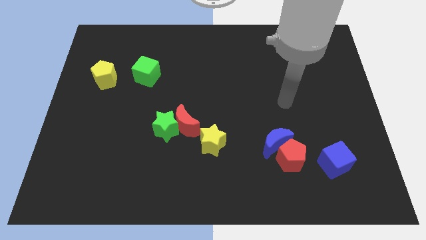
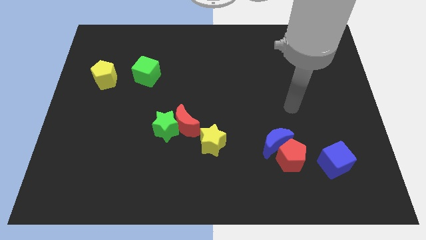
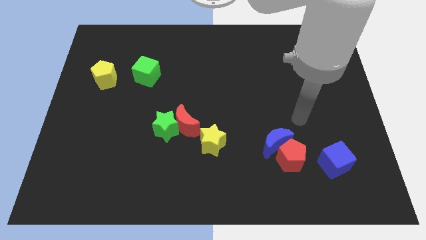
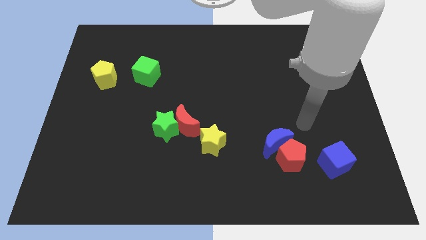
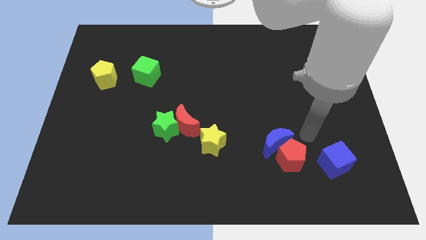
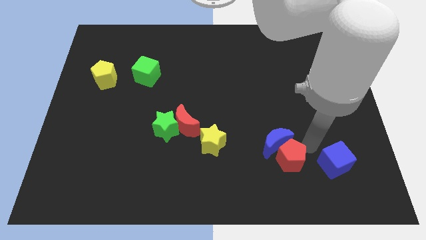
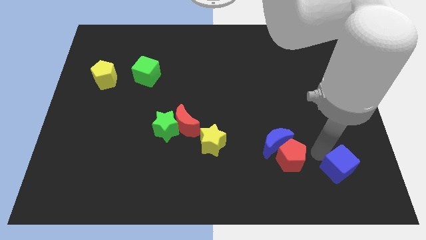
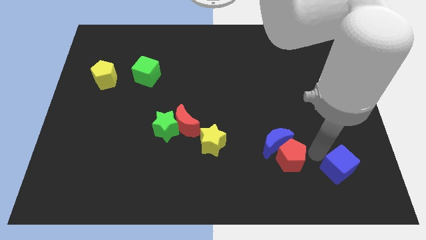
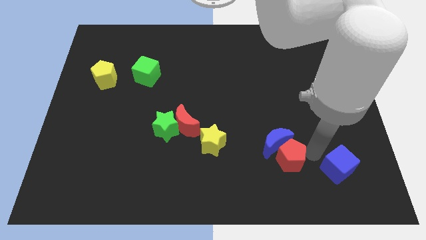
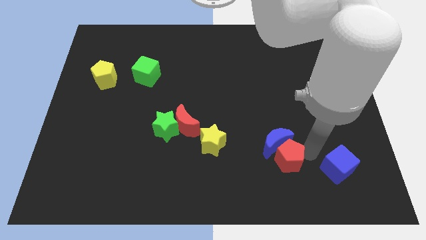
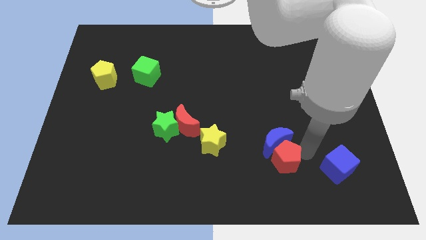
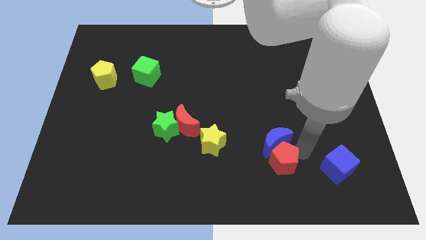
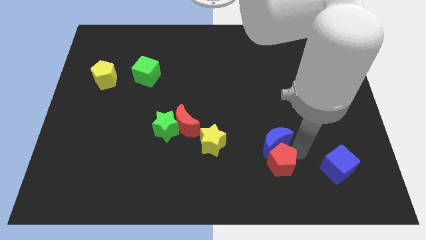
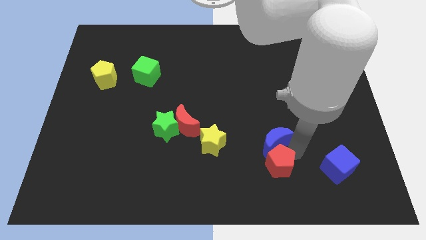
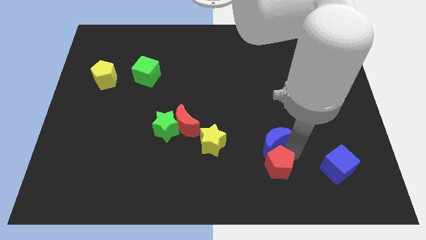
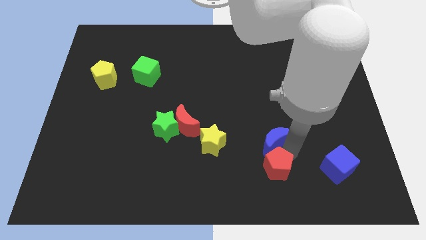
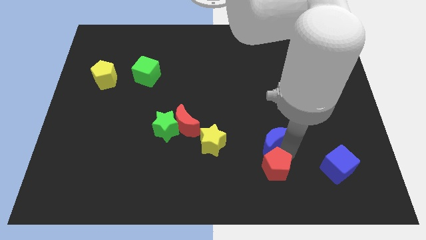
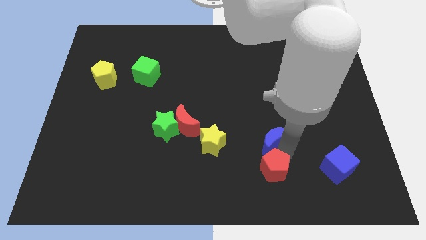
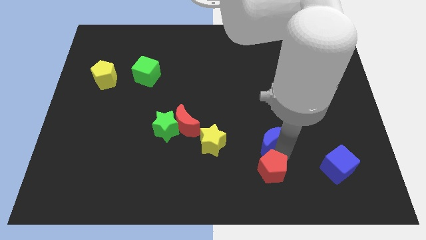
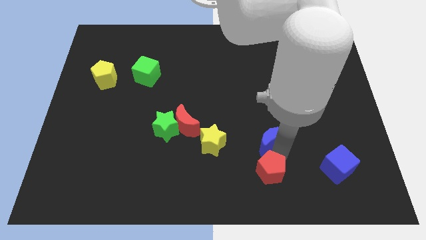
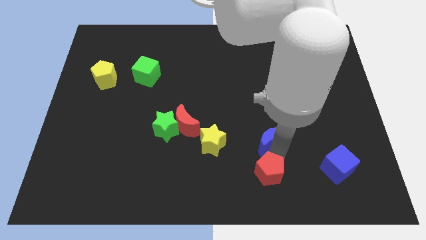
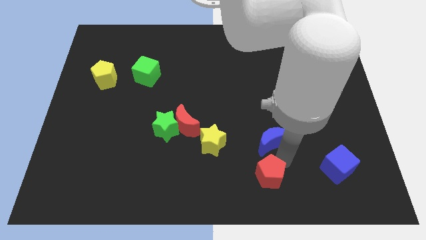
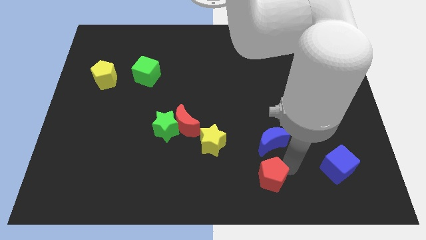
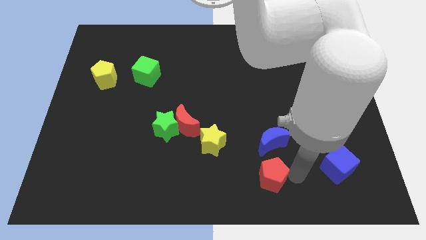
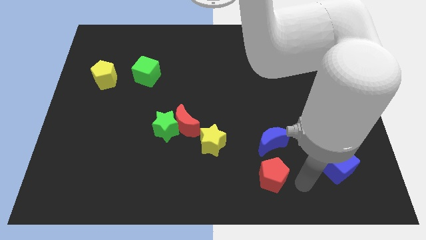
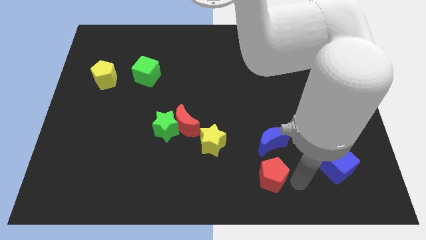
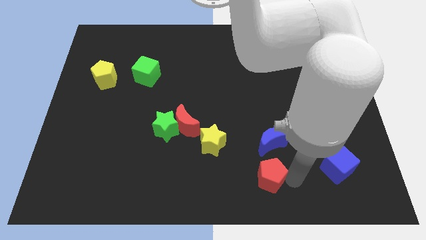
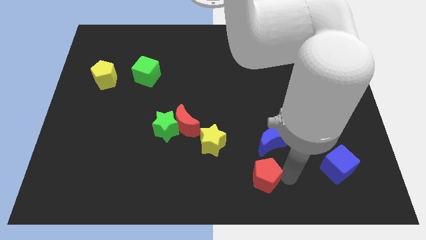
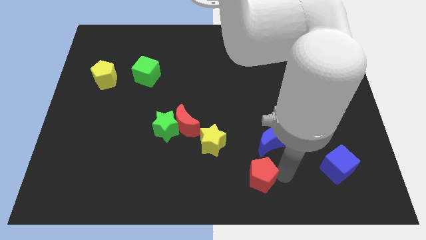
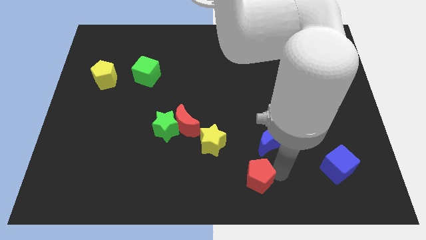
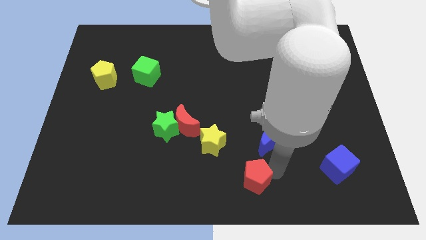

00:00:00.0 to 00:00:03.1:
slide the red pentagon a bit to the left

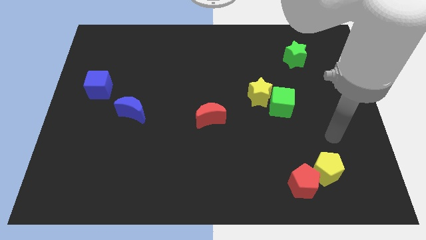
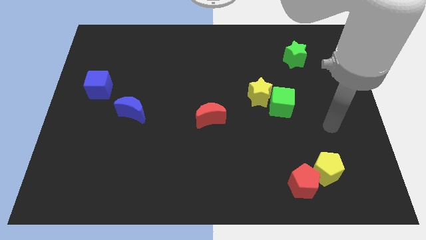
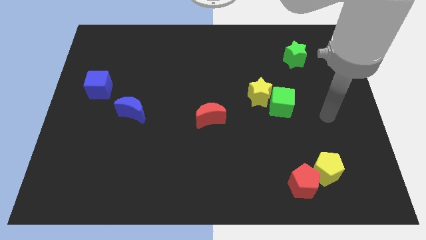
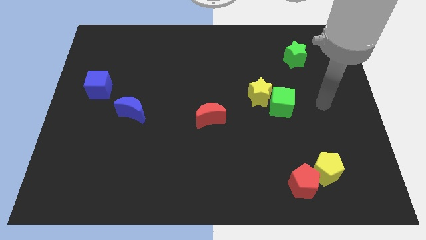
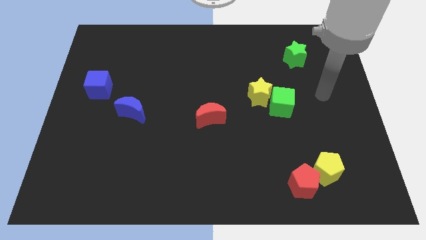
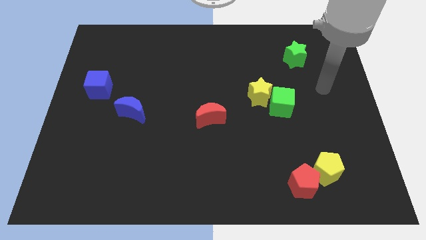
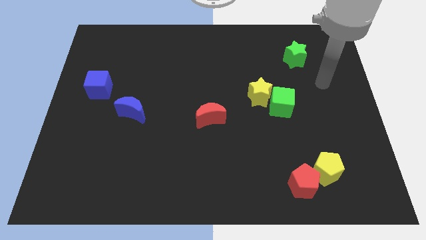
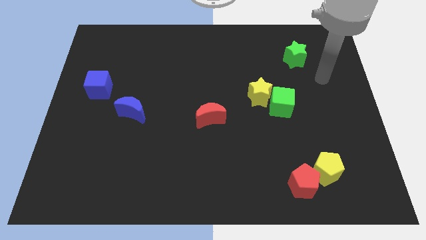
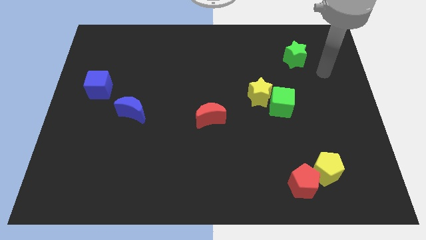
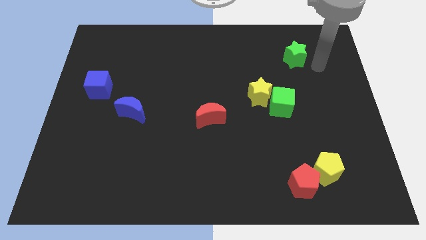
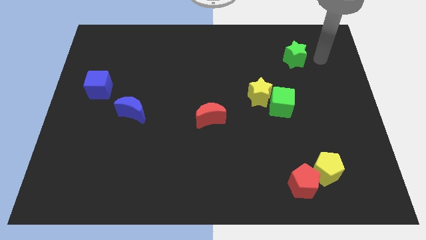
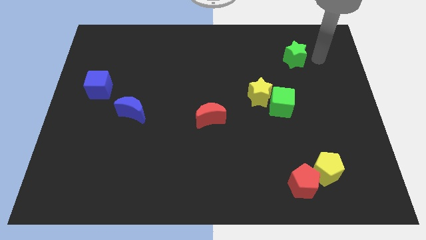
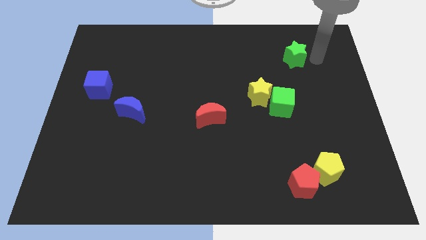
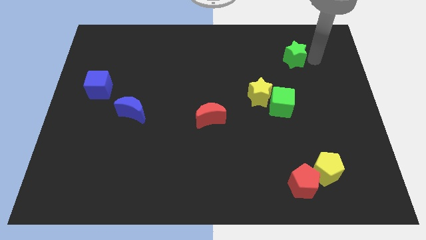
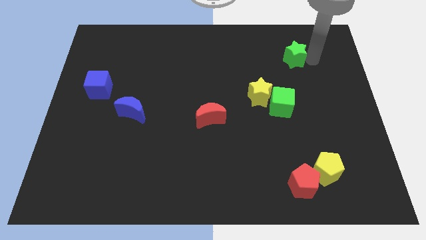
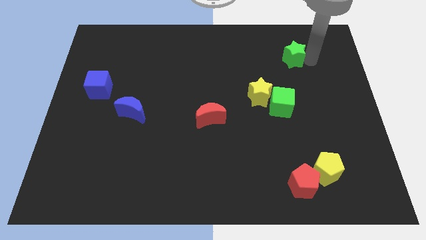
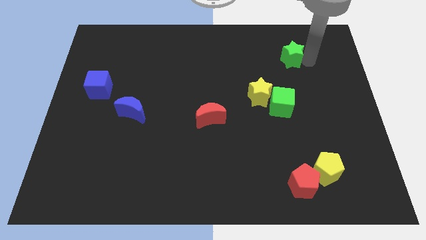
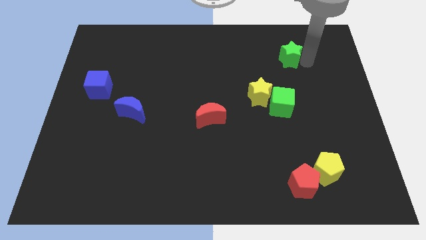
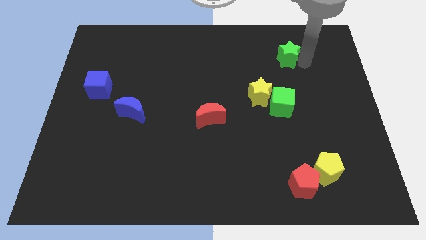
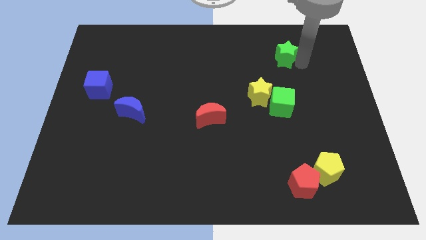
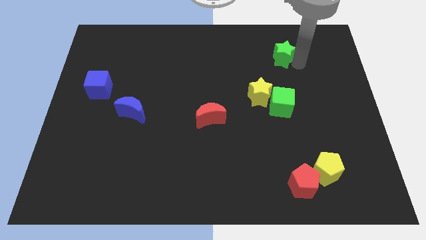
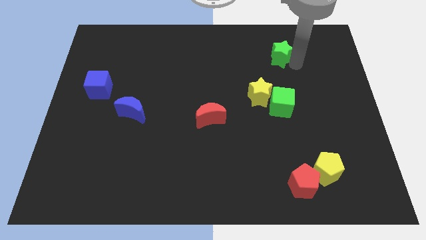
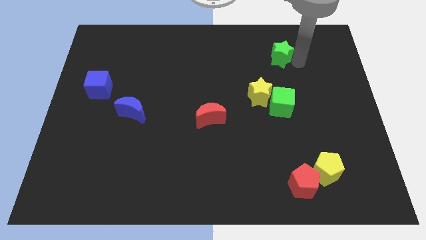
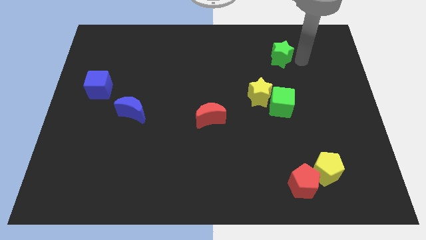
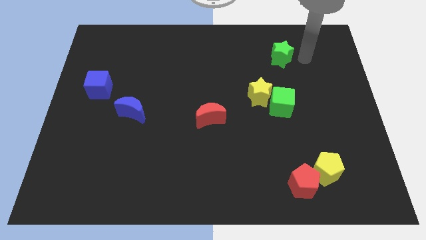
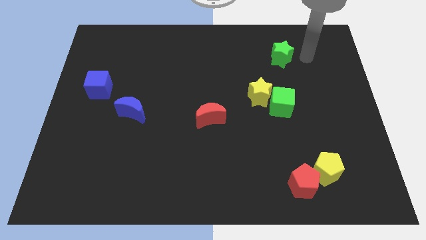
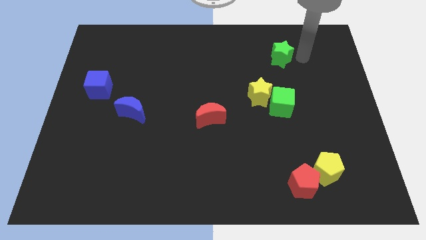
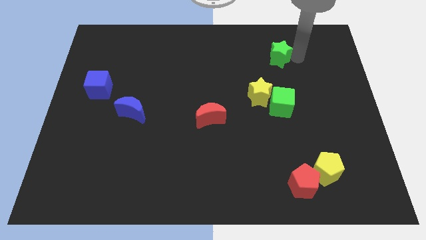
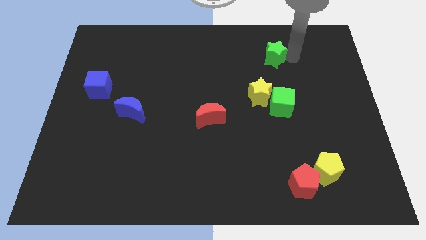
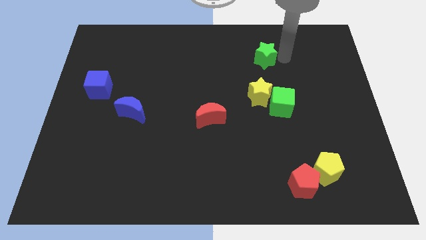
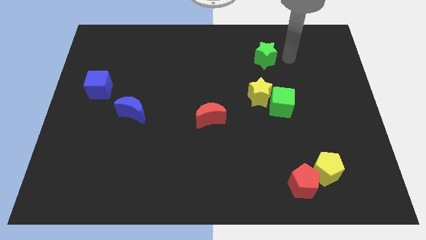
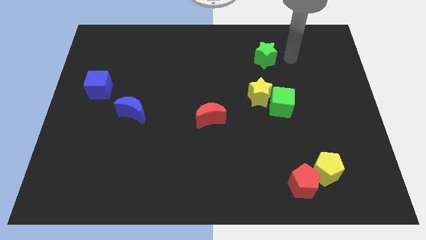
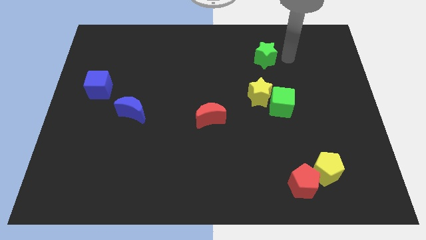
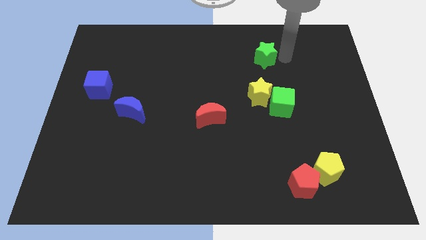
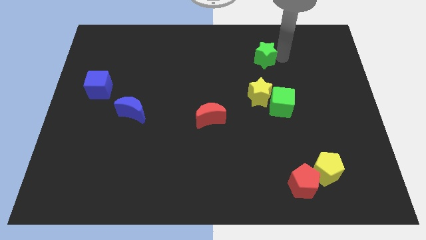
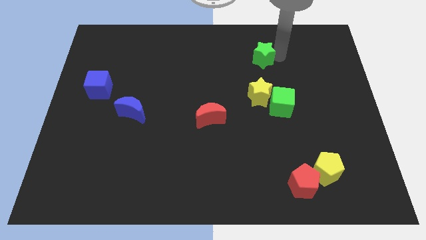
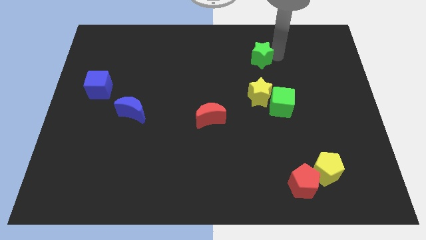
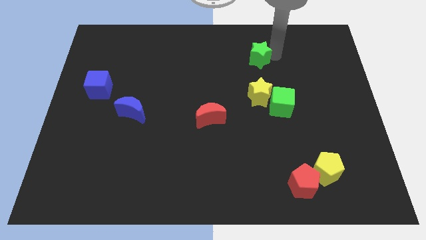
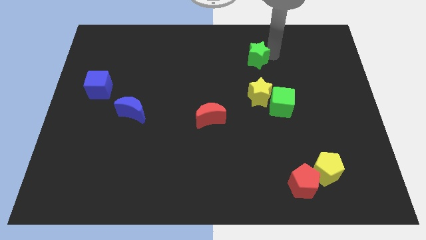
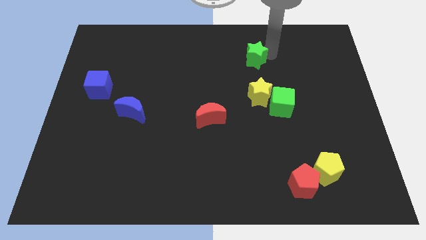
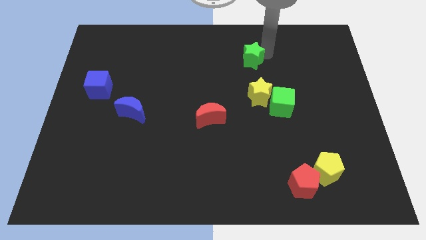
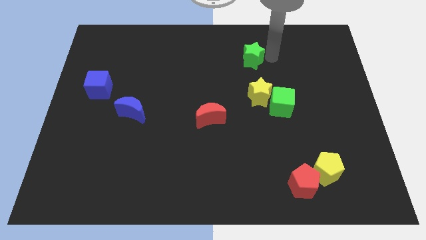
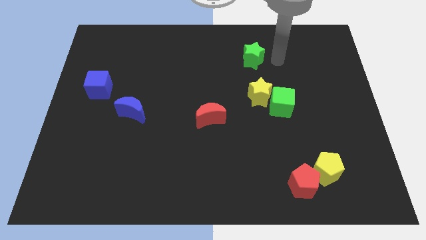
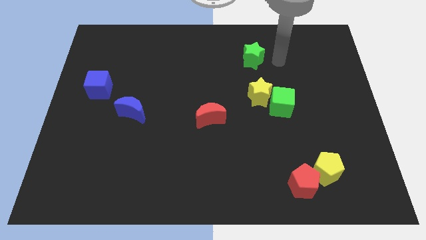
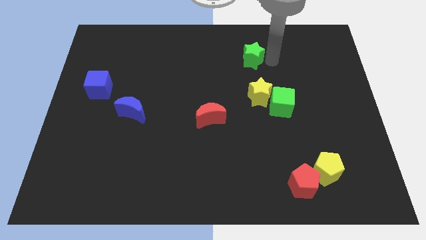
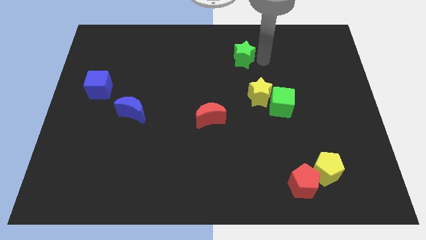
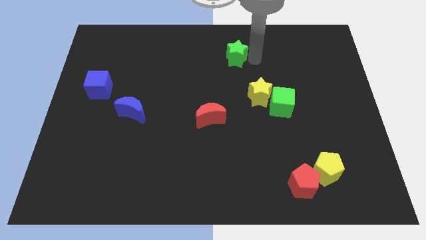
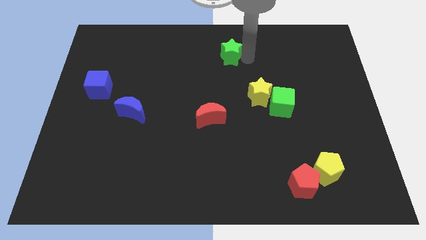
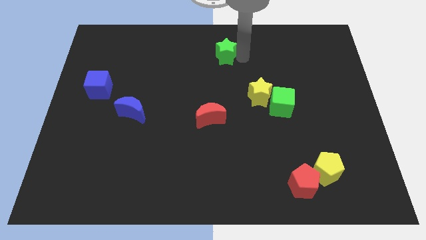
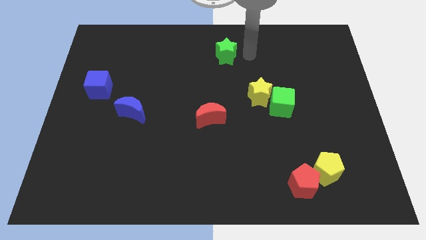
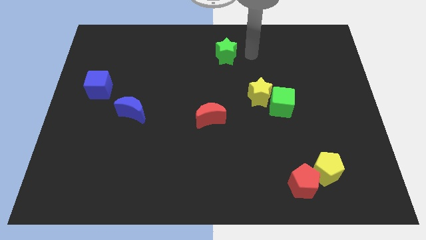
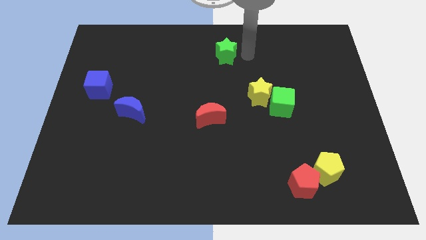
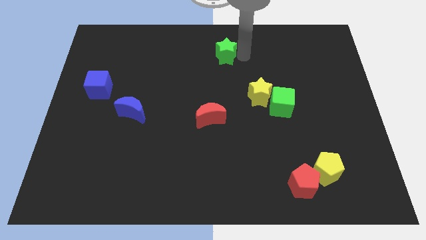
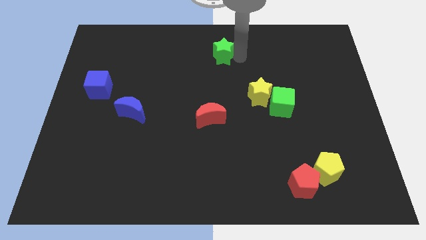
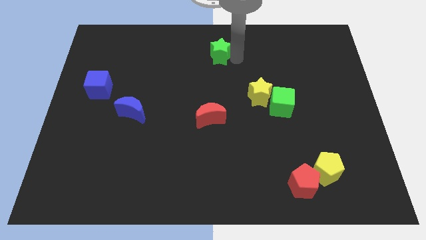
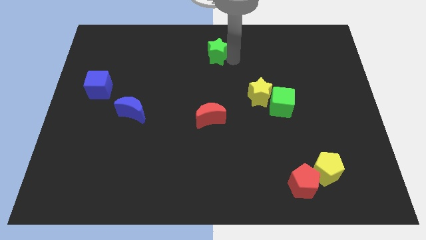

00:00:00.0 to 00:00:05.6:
push the green star left
